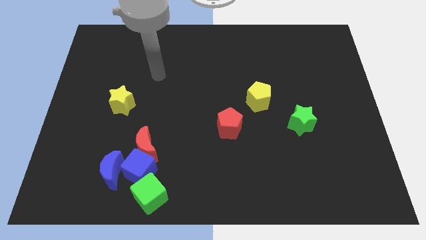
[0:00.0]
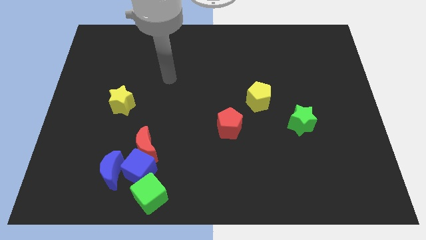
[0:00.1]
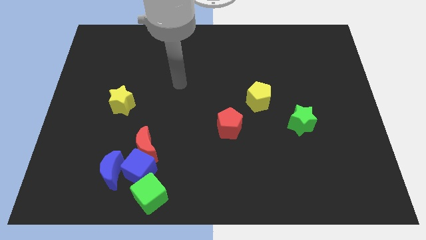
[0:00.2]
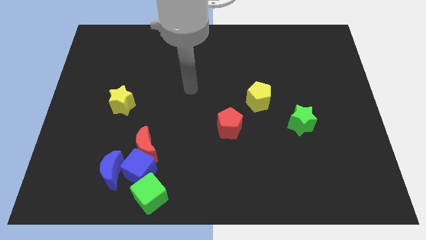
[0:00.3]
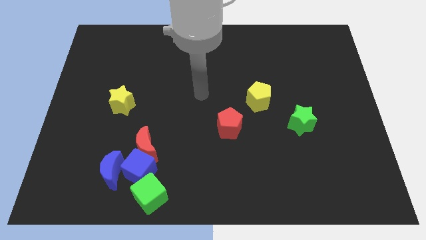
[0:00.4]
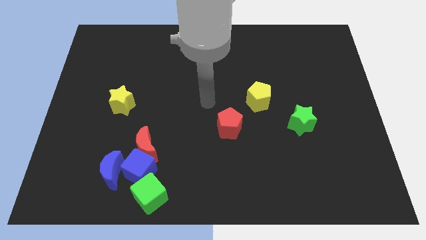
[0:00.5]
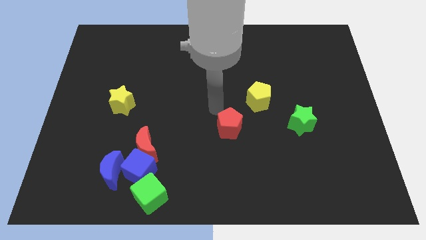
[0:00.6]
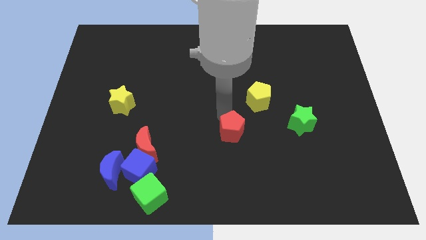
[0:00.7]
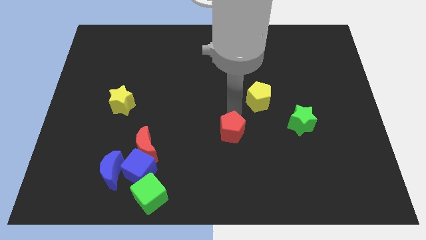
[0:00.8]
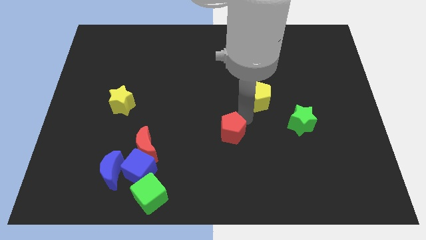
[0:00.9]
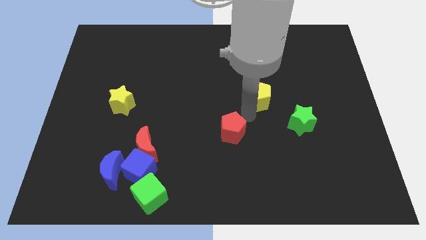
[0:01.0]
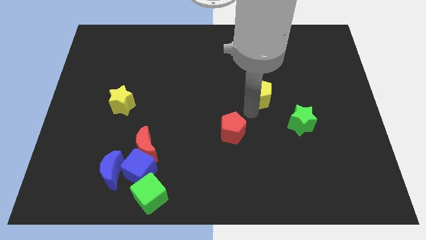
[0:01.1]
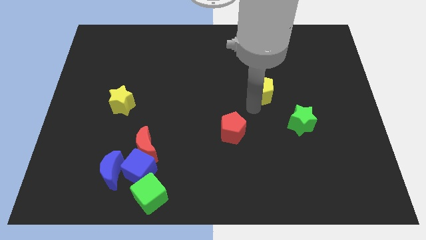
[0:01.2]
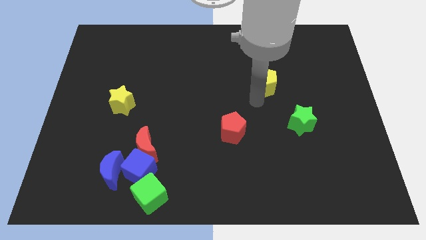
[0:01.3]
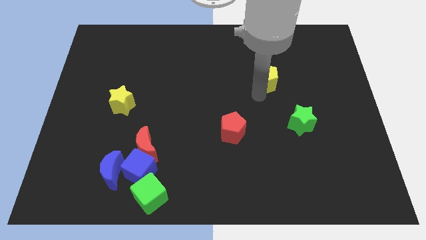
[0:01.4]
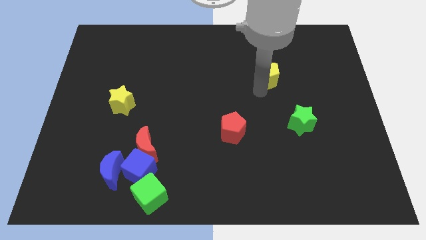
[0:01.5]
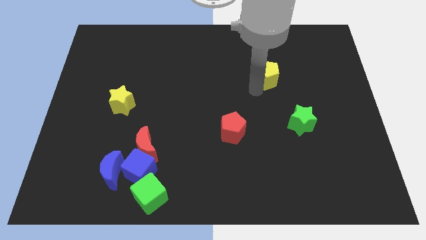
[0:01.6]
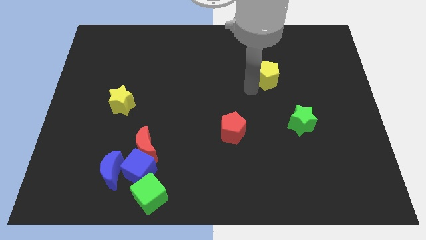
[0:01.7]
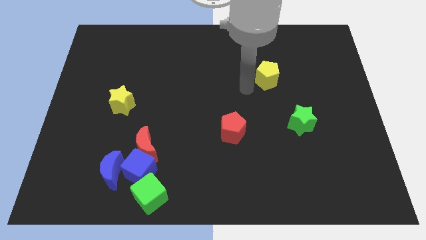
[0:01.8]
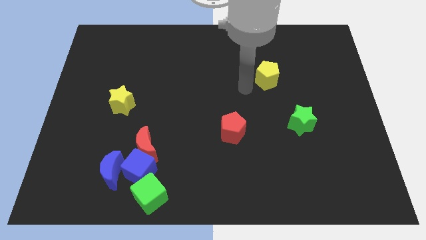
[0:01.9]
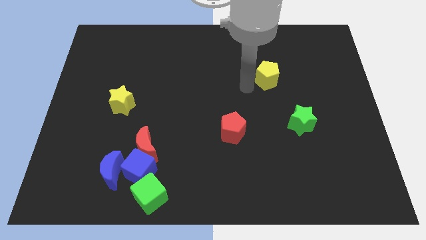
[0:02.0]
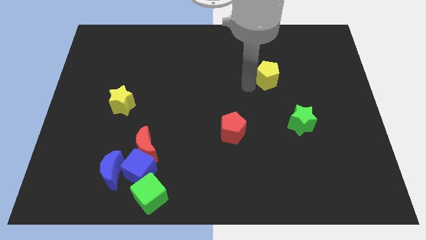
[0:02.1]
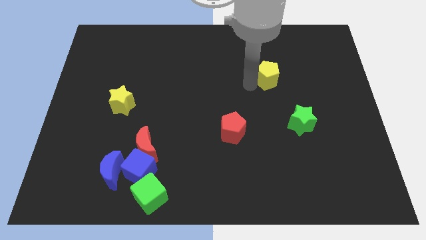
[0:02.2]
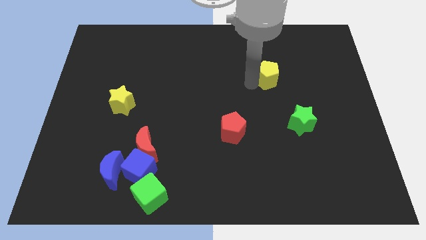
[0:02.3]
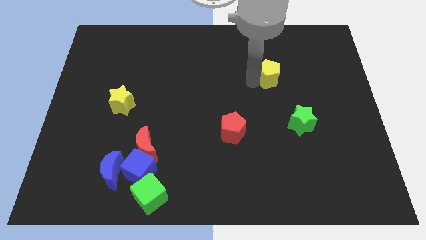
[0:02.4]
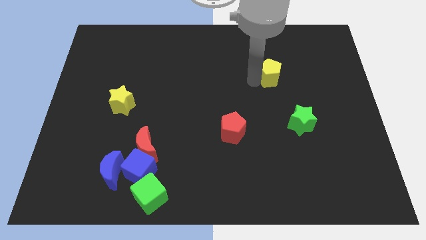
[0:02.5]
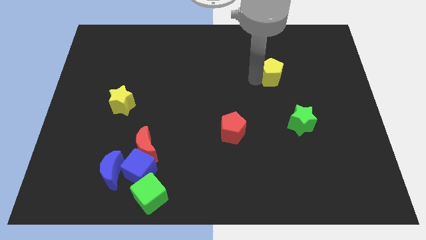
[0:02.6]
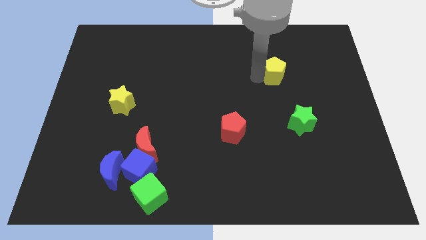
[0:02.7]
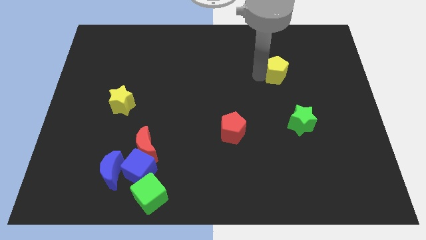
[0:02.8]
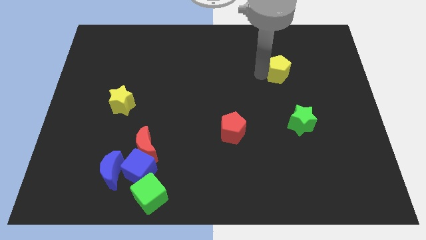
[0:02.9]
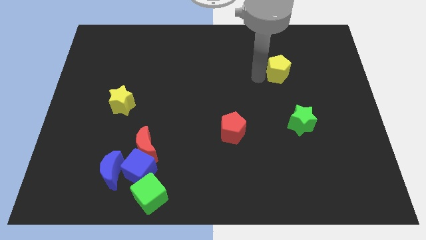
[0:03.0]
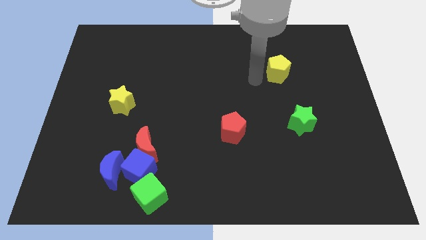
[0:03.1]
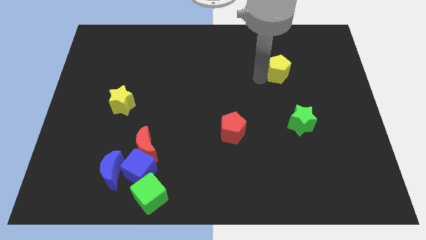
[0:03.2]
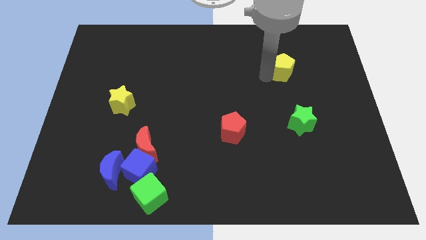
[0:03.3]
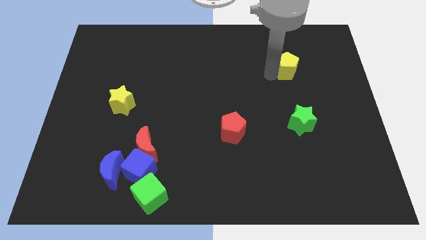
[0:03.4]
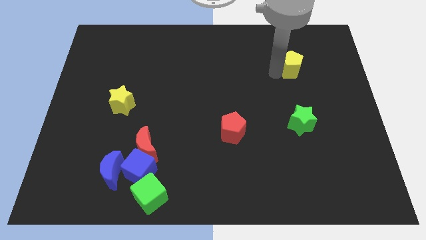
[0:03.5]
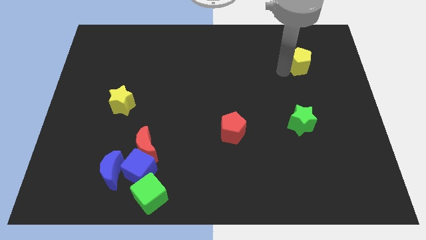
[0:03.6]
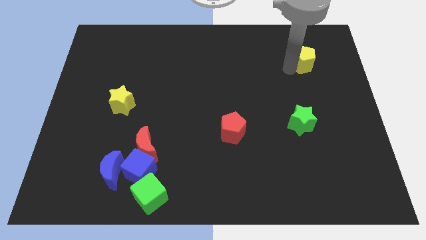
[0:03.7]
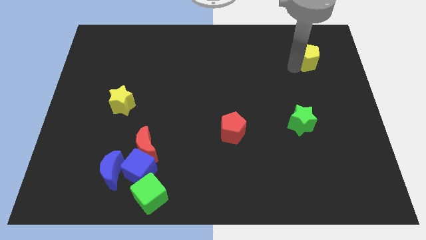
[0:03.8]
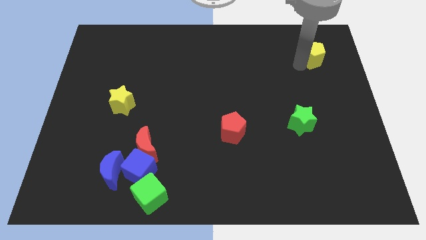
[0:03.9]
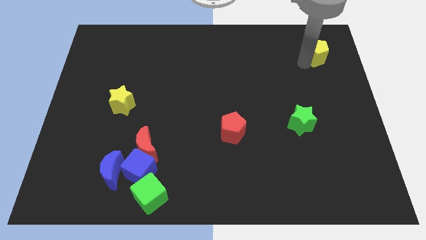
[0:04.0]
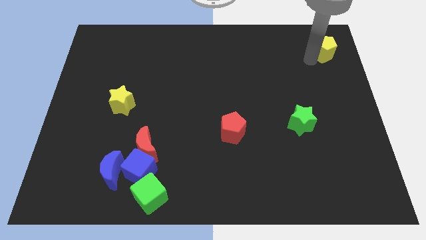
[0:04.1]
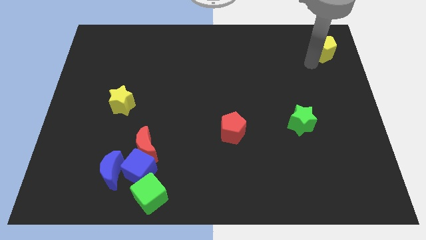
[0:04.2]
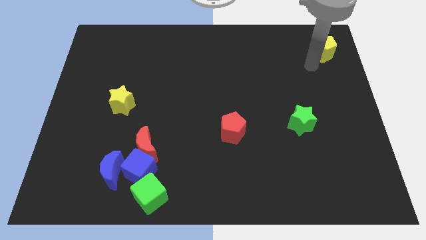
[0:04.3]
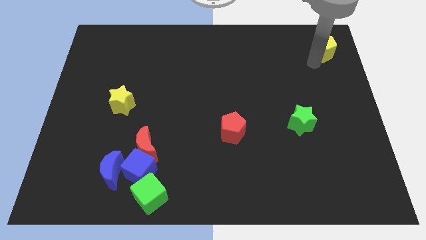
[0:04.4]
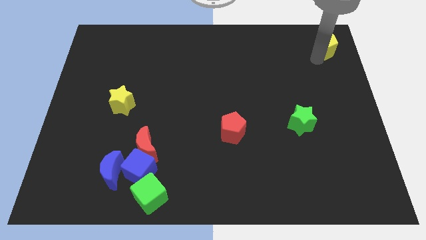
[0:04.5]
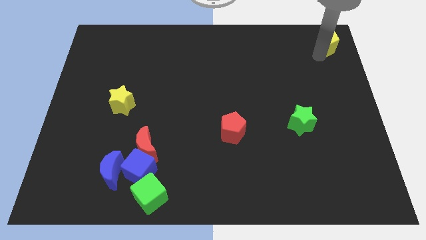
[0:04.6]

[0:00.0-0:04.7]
put the yellow pentagon to the upper right corner

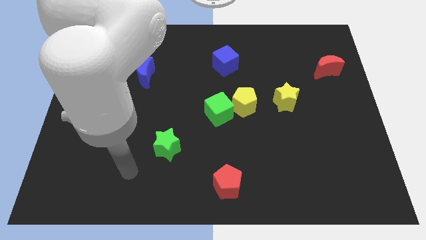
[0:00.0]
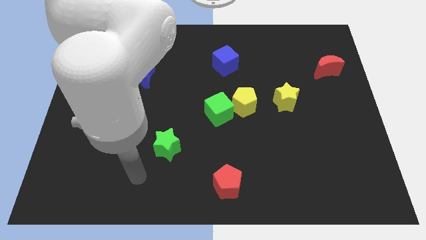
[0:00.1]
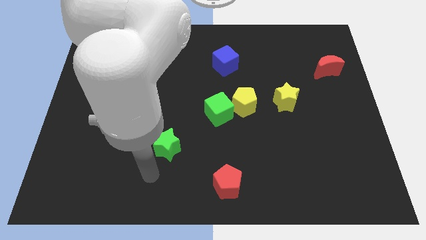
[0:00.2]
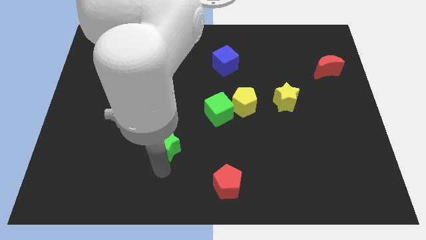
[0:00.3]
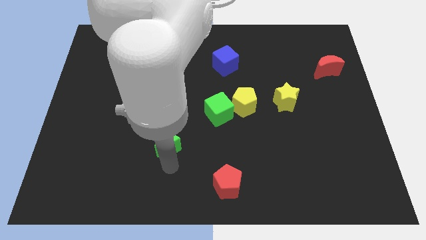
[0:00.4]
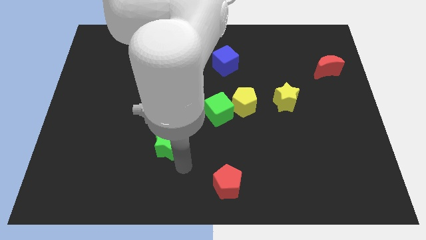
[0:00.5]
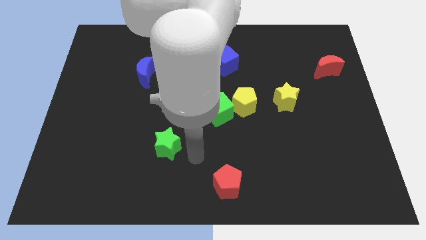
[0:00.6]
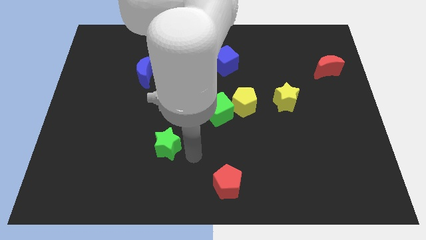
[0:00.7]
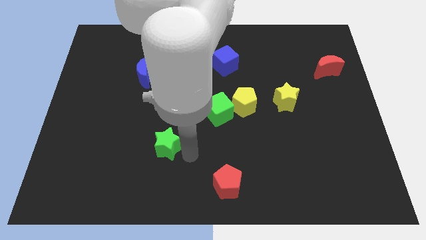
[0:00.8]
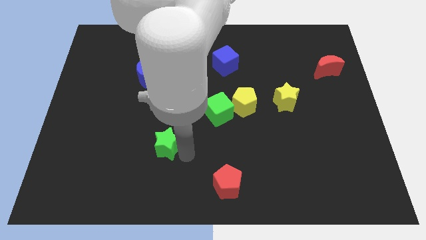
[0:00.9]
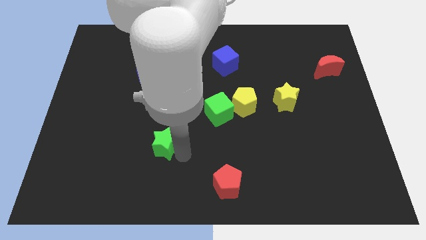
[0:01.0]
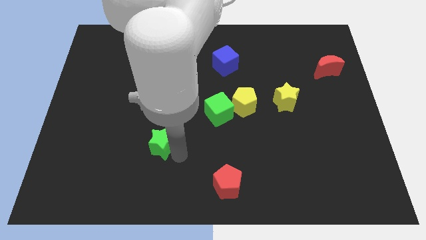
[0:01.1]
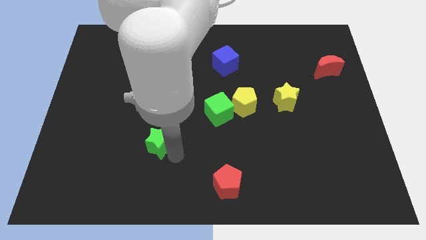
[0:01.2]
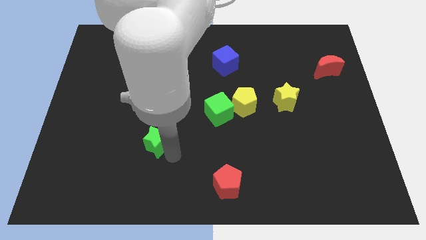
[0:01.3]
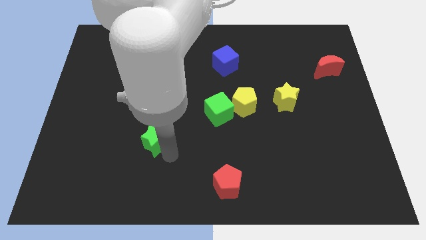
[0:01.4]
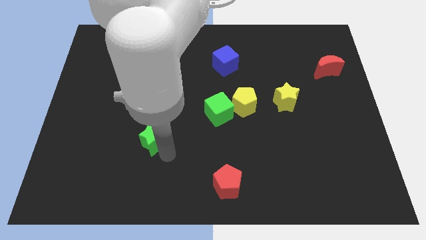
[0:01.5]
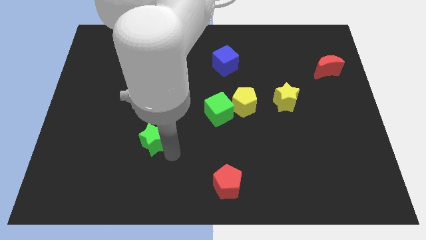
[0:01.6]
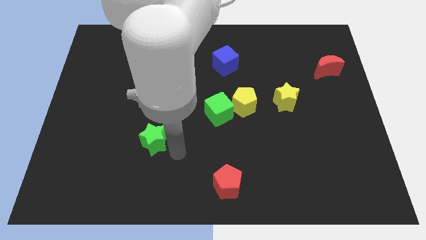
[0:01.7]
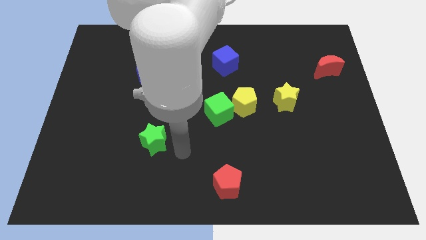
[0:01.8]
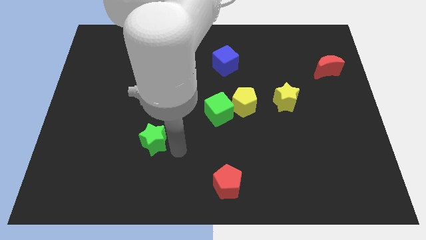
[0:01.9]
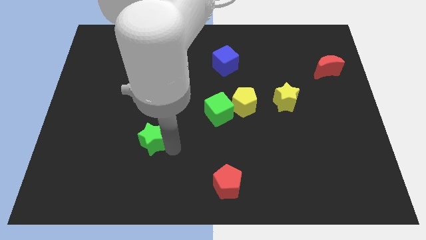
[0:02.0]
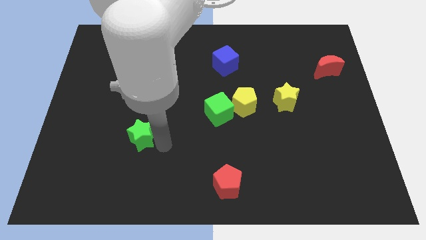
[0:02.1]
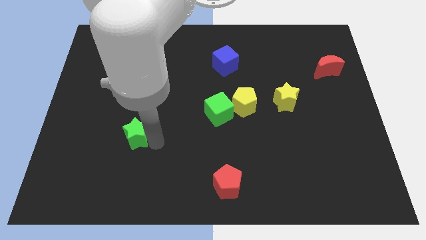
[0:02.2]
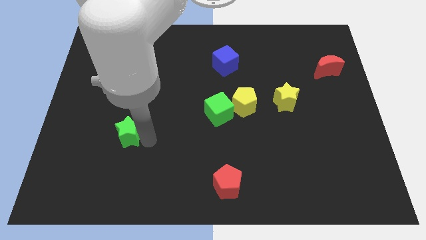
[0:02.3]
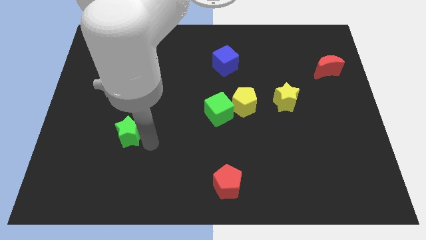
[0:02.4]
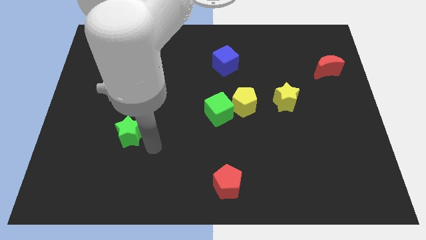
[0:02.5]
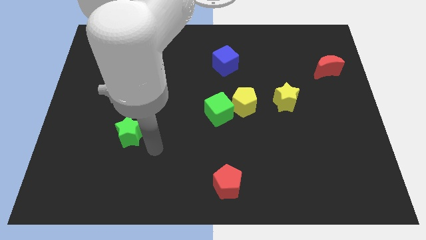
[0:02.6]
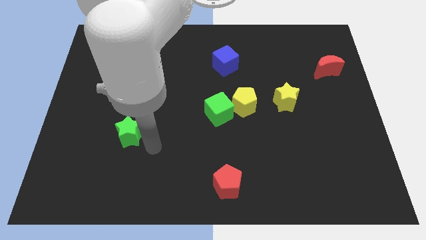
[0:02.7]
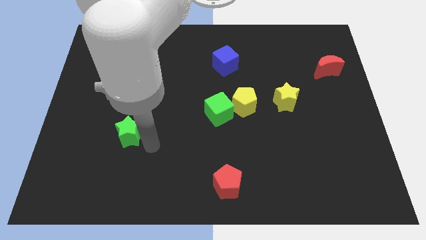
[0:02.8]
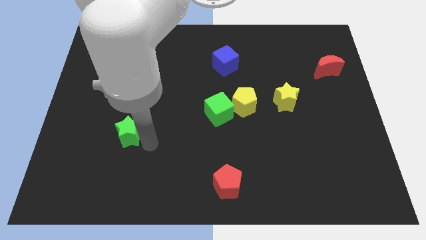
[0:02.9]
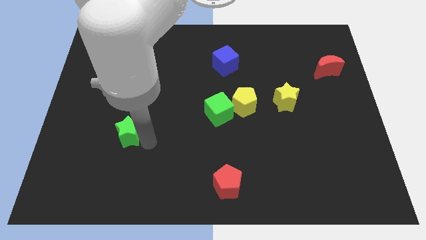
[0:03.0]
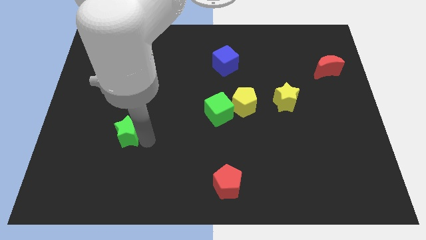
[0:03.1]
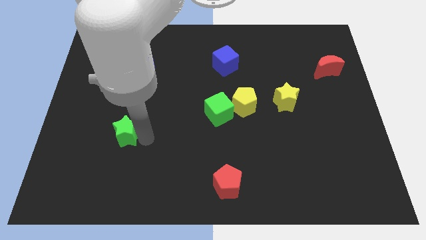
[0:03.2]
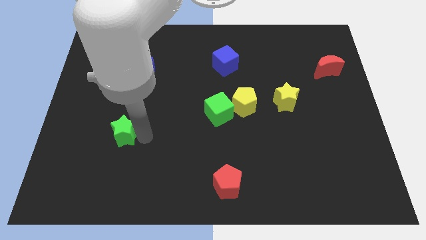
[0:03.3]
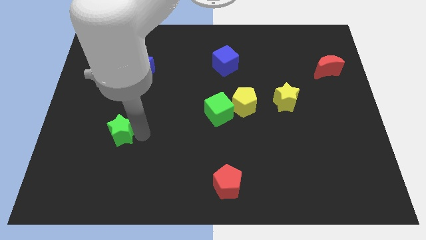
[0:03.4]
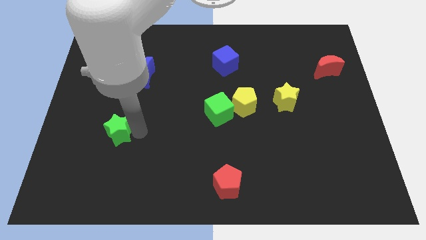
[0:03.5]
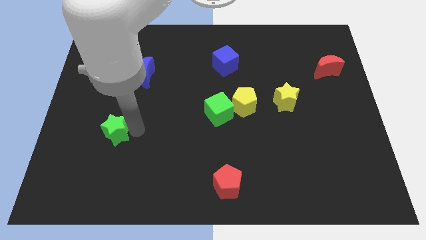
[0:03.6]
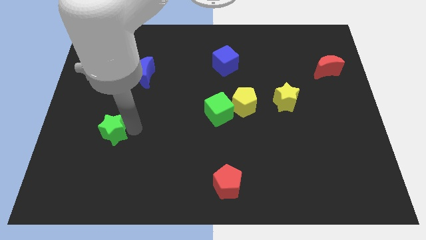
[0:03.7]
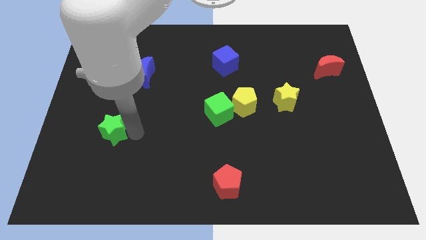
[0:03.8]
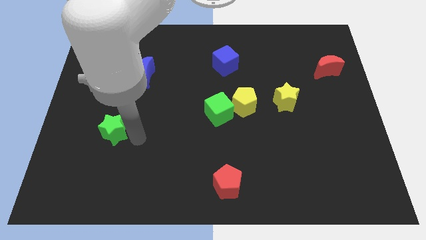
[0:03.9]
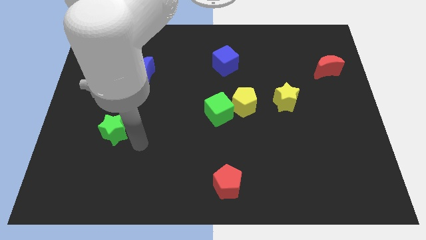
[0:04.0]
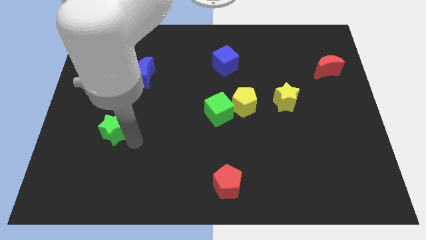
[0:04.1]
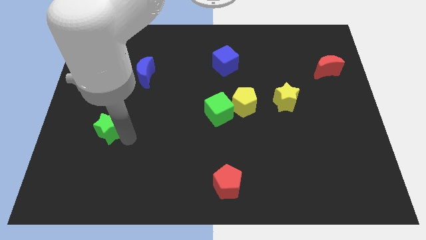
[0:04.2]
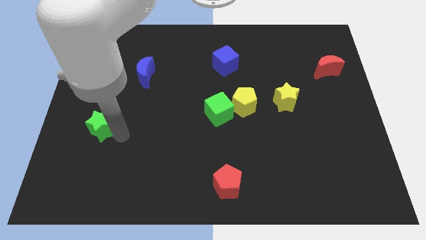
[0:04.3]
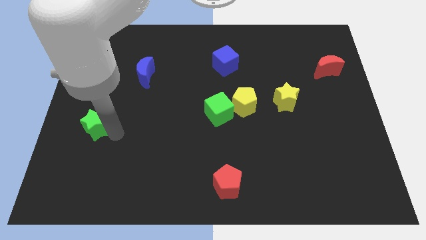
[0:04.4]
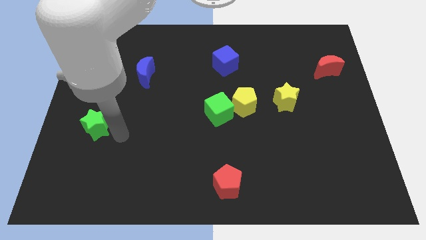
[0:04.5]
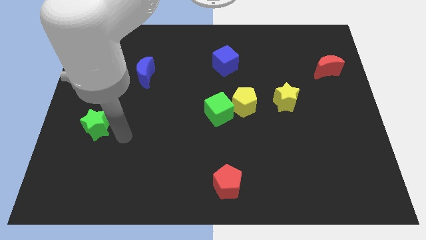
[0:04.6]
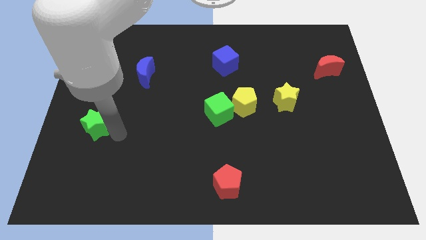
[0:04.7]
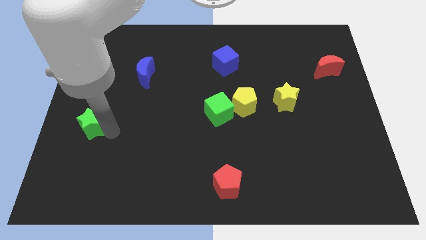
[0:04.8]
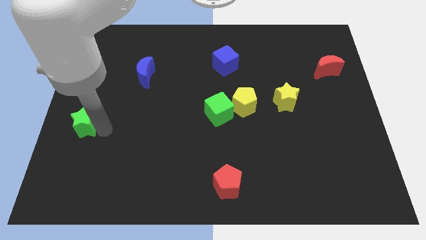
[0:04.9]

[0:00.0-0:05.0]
move the green star to the left side
